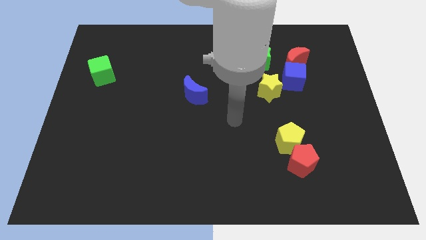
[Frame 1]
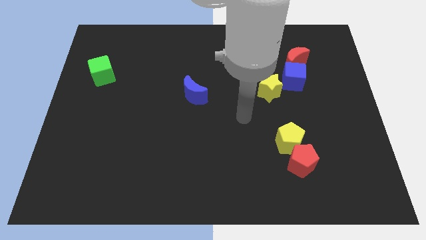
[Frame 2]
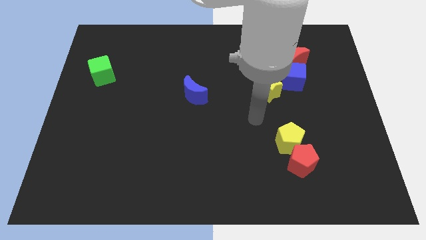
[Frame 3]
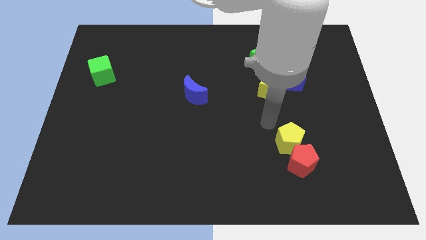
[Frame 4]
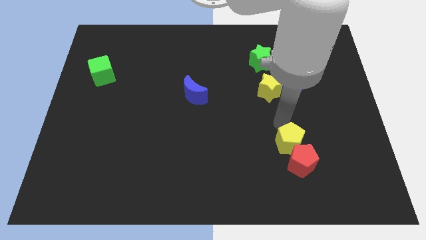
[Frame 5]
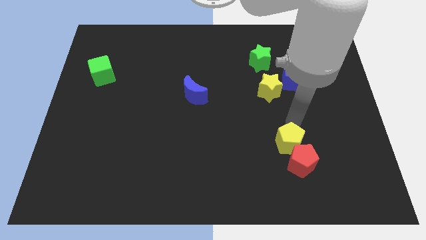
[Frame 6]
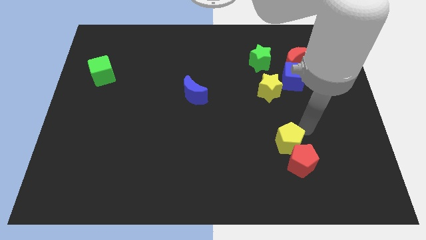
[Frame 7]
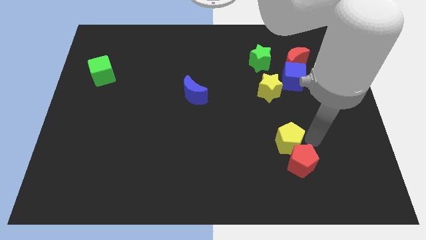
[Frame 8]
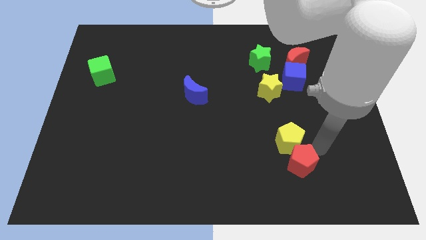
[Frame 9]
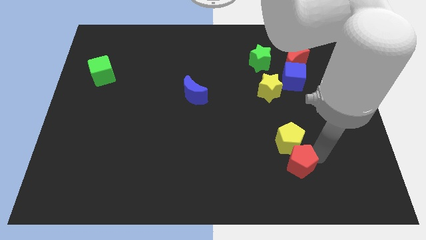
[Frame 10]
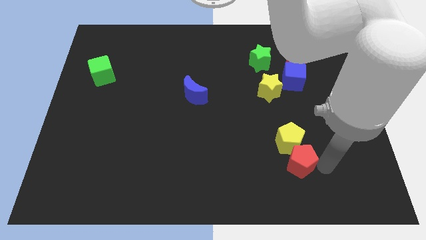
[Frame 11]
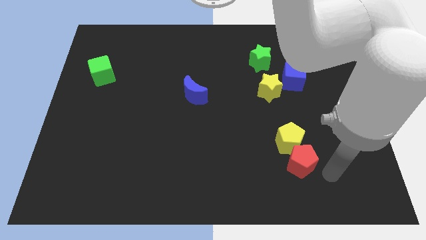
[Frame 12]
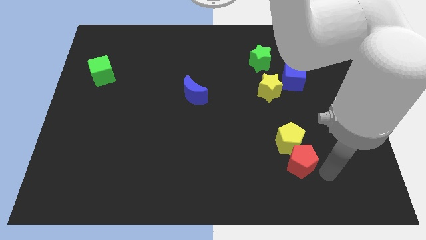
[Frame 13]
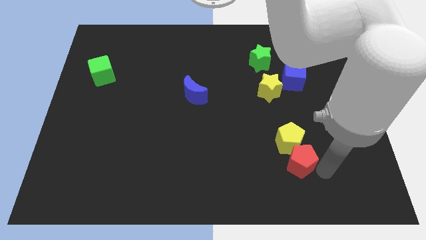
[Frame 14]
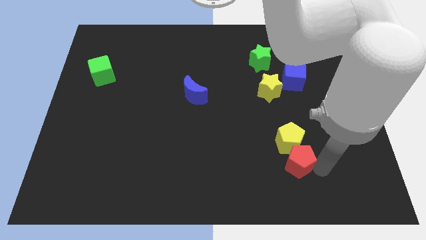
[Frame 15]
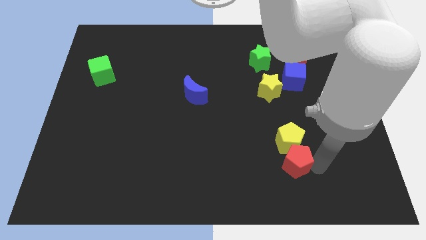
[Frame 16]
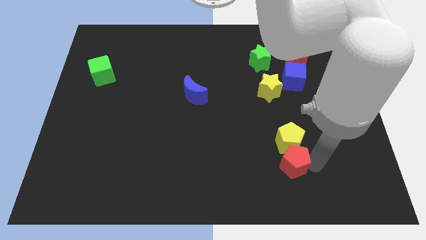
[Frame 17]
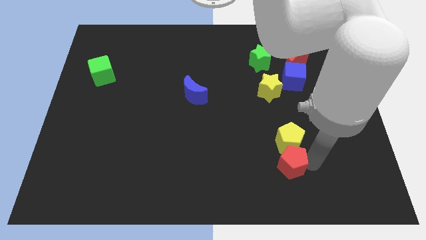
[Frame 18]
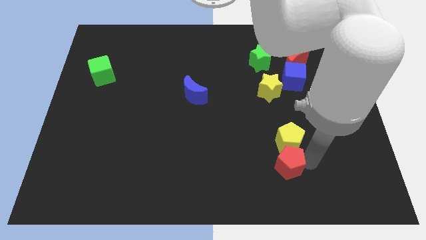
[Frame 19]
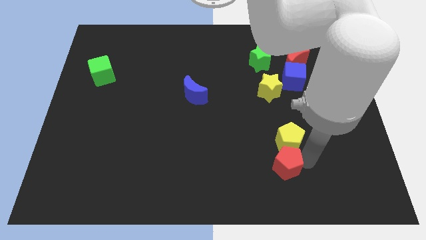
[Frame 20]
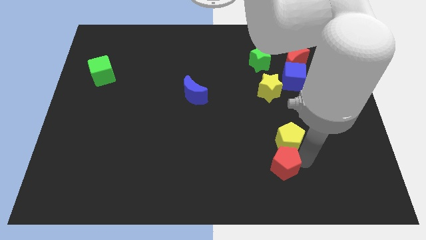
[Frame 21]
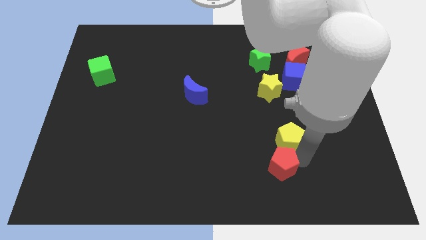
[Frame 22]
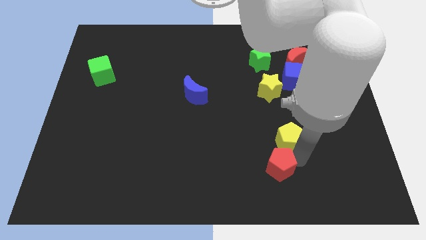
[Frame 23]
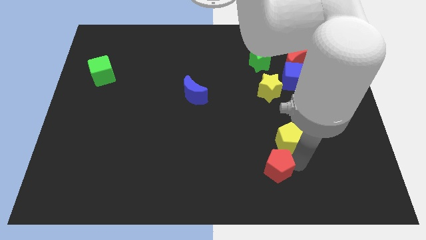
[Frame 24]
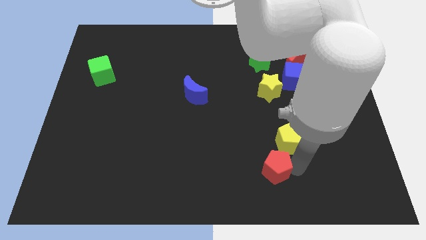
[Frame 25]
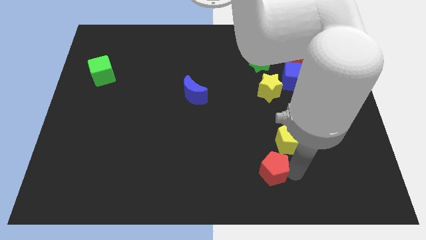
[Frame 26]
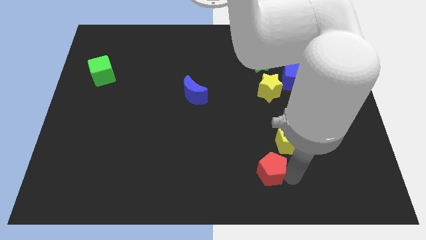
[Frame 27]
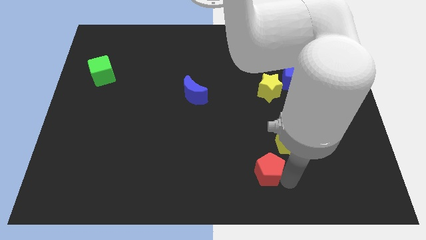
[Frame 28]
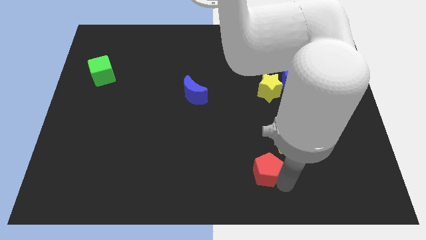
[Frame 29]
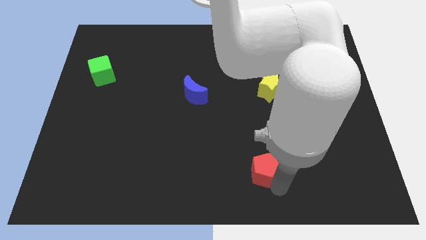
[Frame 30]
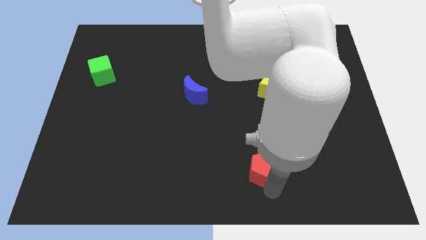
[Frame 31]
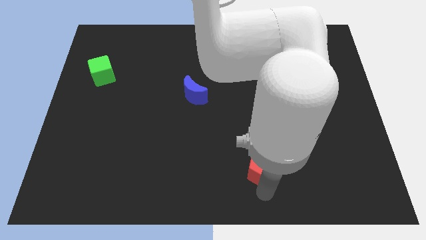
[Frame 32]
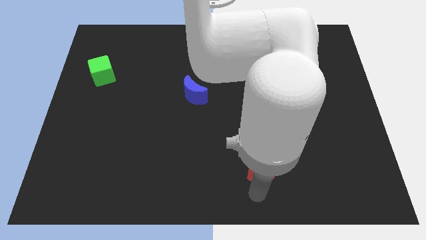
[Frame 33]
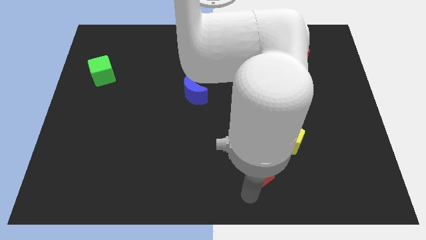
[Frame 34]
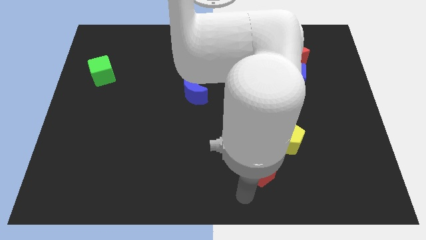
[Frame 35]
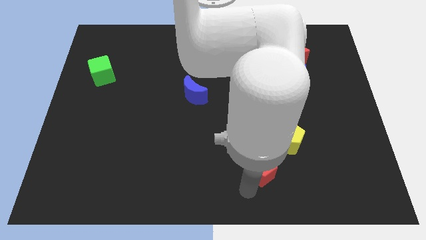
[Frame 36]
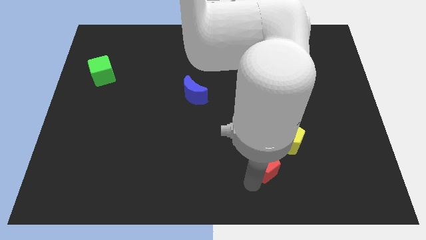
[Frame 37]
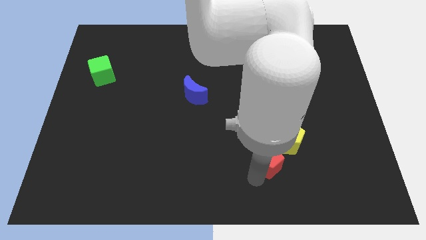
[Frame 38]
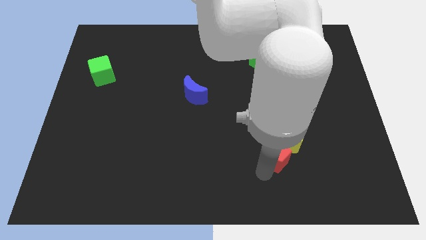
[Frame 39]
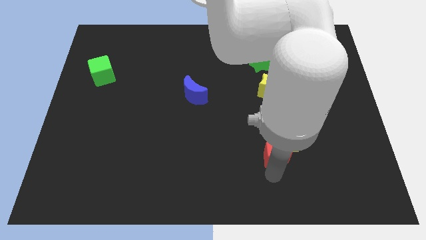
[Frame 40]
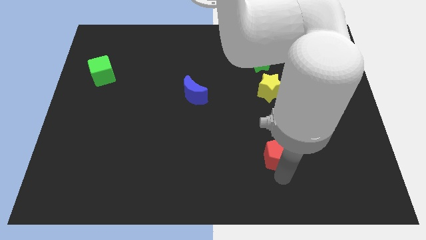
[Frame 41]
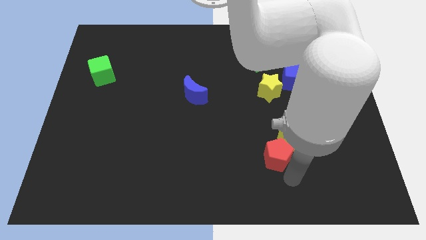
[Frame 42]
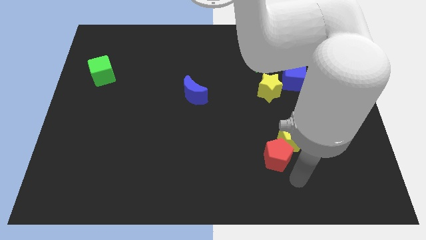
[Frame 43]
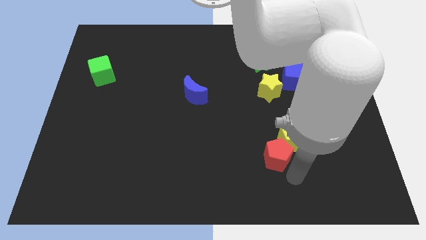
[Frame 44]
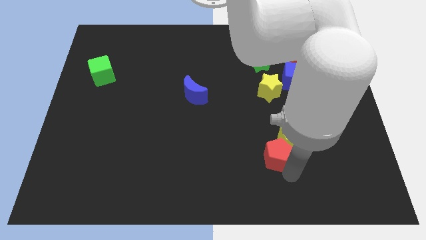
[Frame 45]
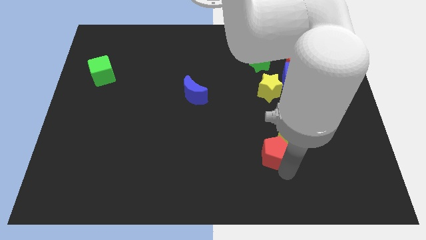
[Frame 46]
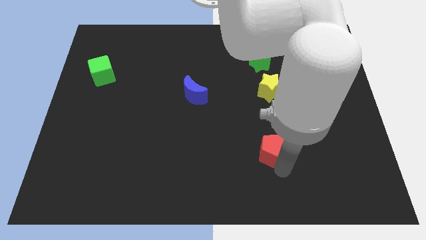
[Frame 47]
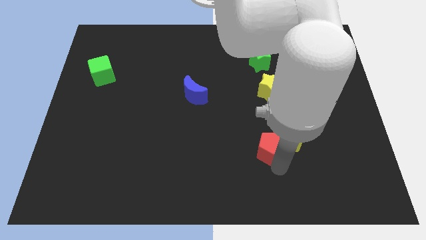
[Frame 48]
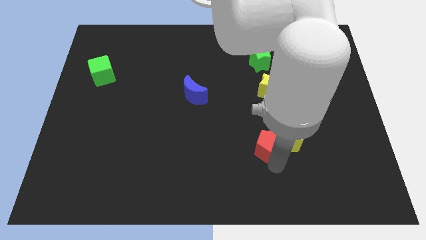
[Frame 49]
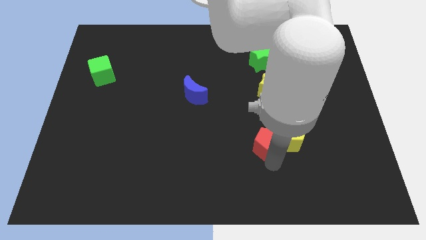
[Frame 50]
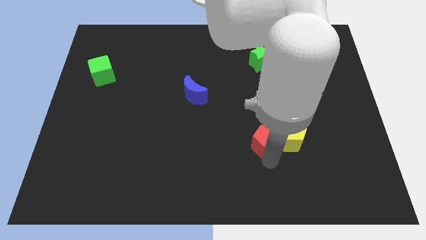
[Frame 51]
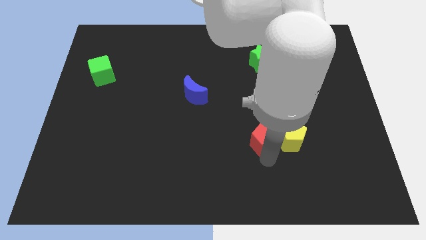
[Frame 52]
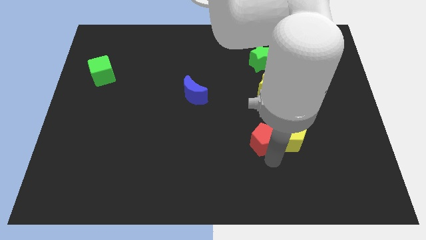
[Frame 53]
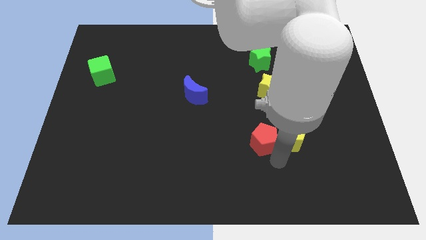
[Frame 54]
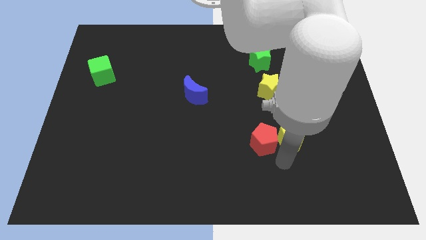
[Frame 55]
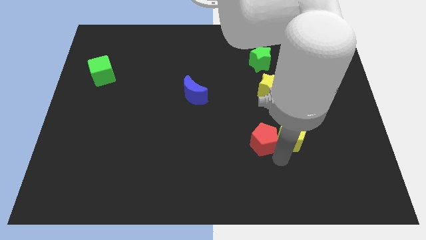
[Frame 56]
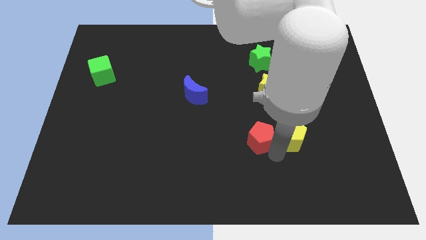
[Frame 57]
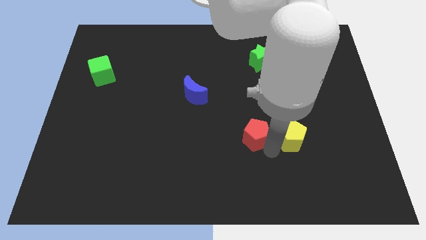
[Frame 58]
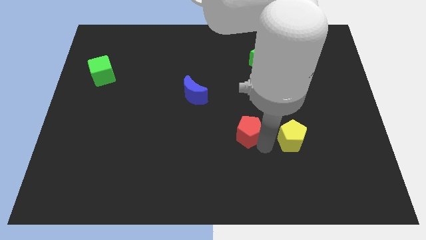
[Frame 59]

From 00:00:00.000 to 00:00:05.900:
move the red pentagon to the center

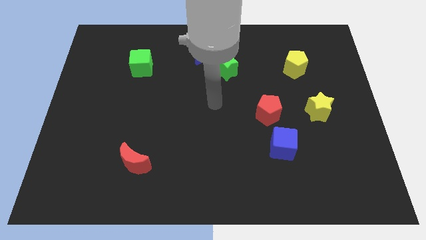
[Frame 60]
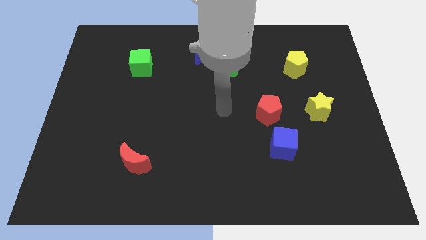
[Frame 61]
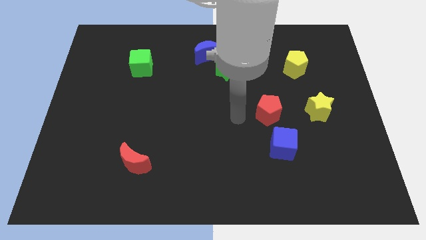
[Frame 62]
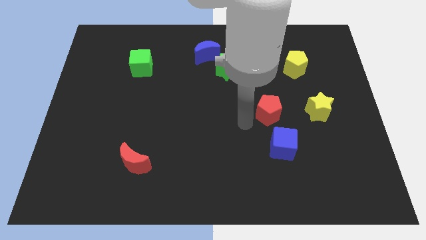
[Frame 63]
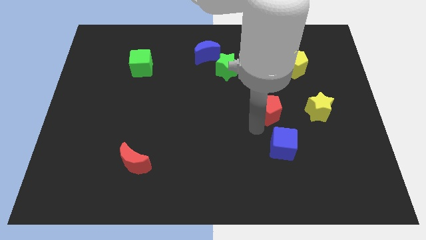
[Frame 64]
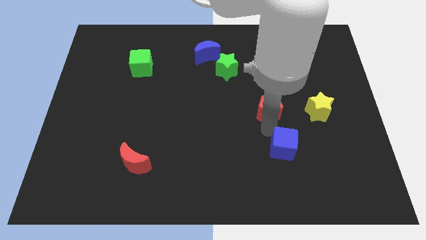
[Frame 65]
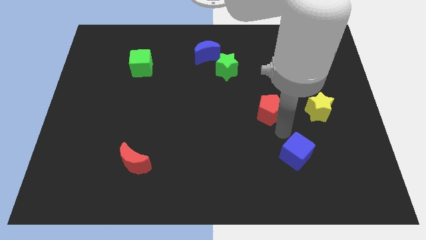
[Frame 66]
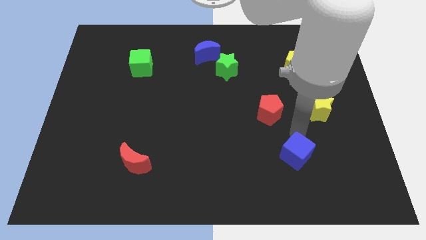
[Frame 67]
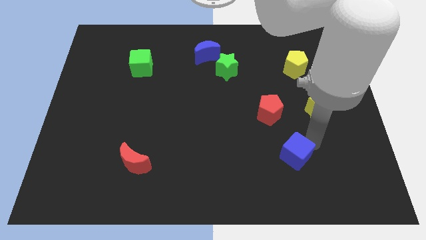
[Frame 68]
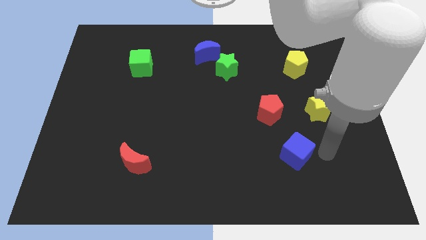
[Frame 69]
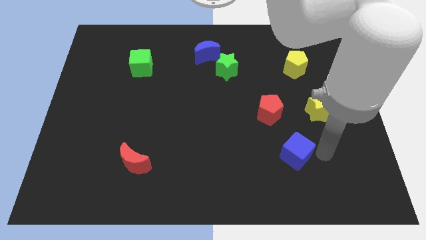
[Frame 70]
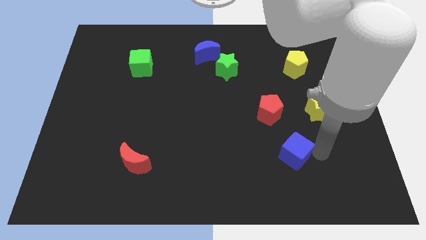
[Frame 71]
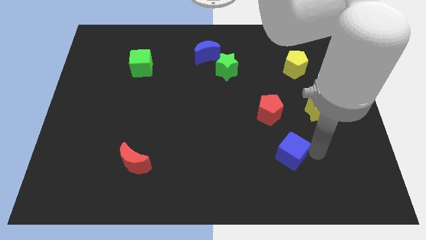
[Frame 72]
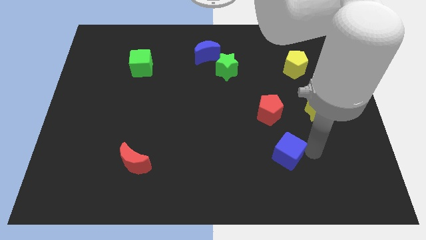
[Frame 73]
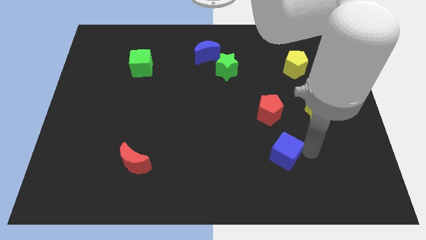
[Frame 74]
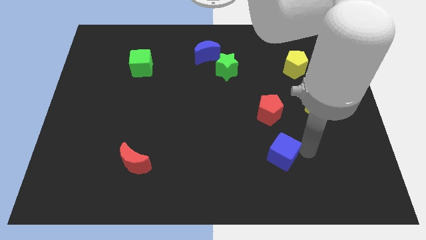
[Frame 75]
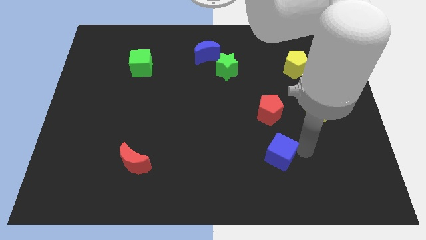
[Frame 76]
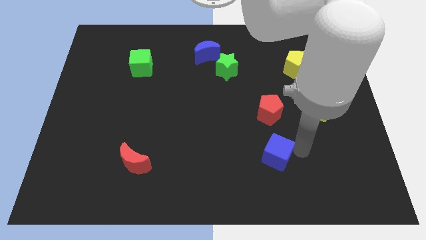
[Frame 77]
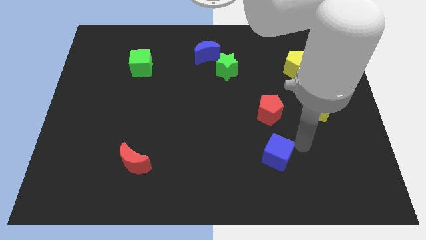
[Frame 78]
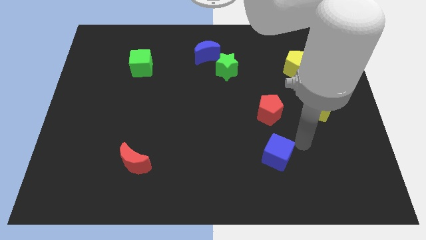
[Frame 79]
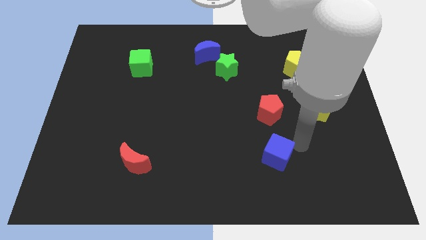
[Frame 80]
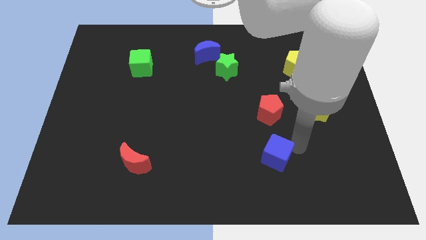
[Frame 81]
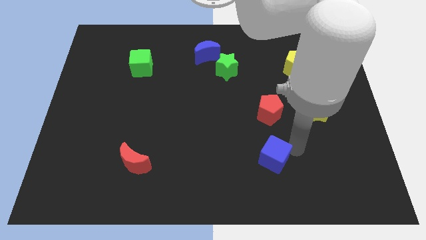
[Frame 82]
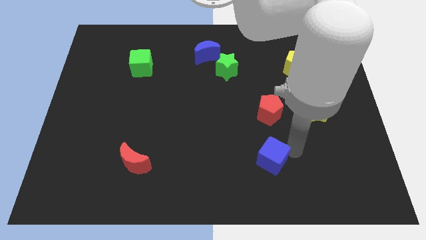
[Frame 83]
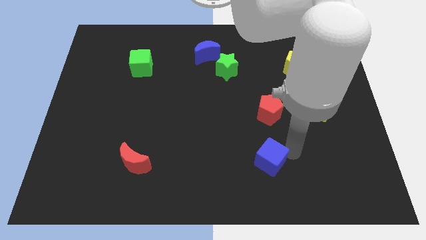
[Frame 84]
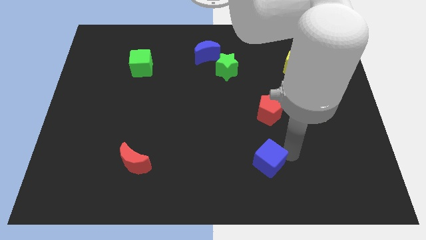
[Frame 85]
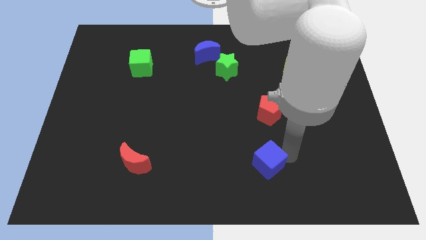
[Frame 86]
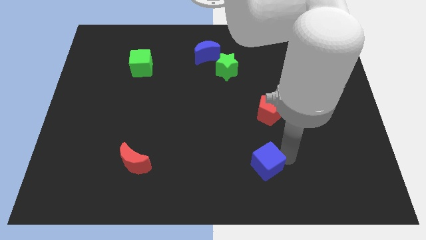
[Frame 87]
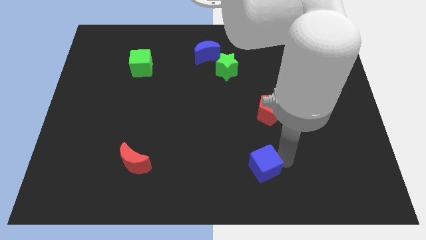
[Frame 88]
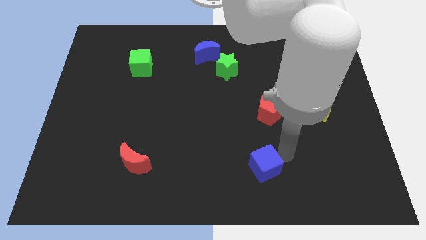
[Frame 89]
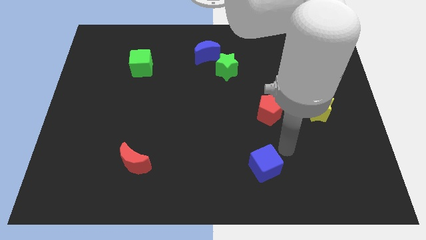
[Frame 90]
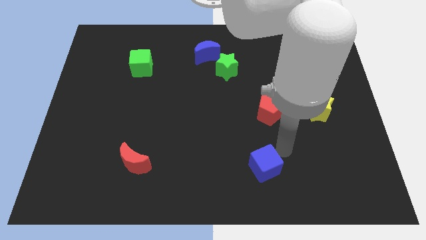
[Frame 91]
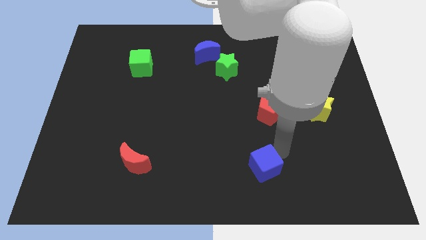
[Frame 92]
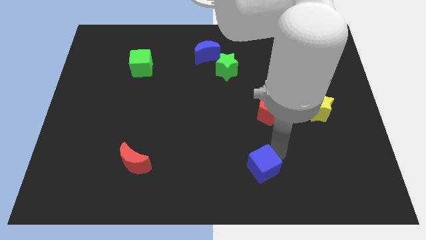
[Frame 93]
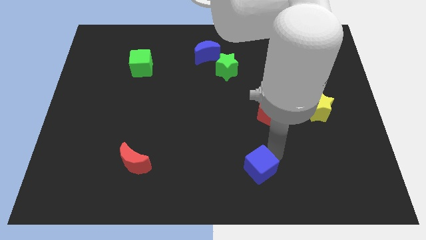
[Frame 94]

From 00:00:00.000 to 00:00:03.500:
slide the blue cube to the bottom
